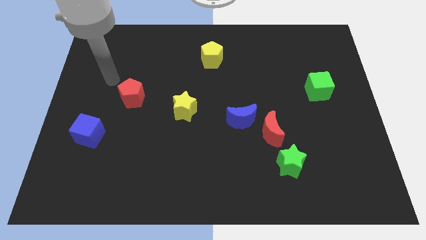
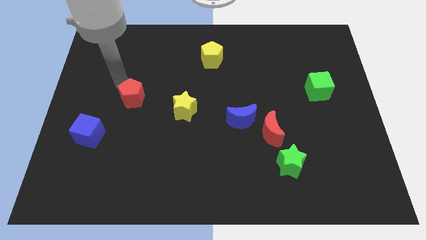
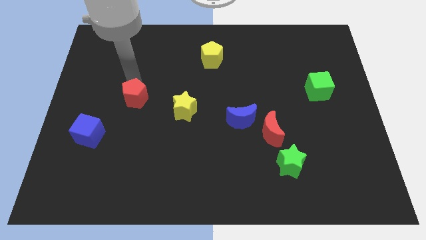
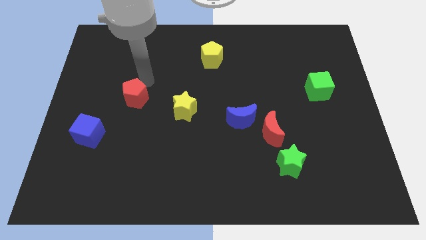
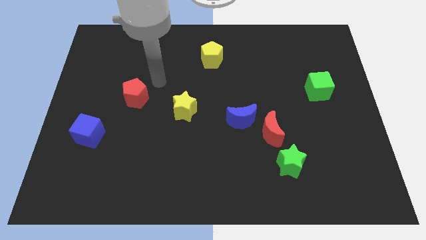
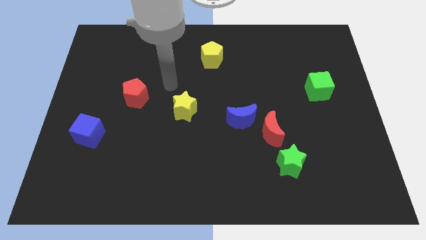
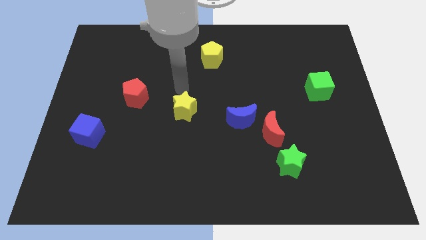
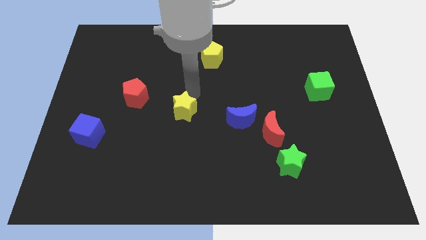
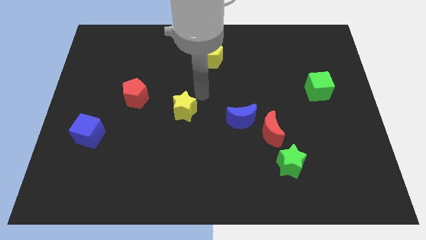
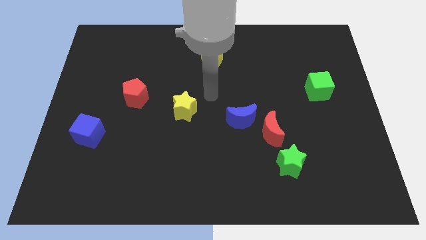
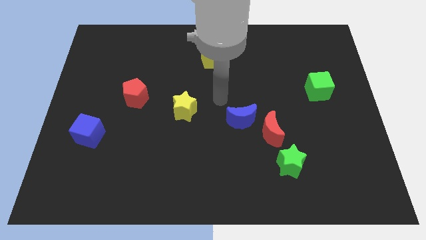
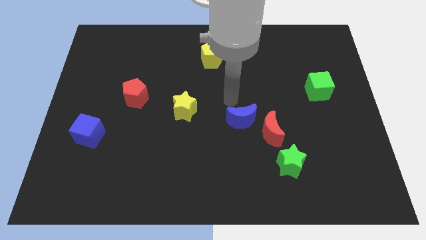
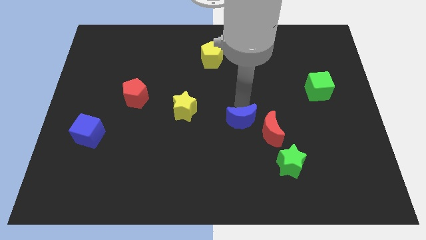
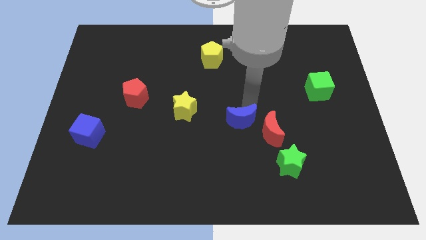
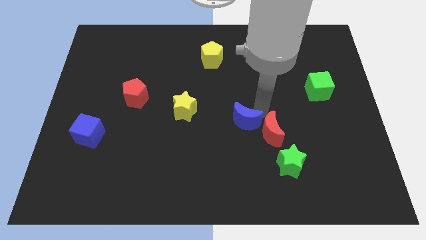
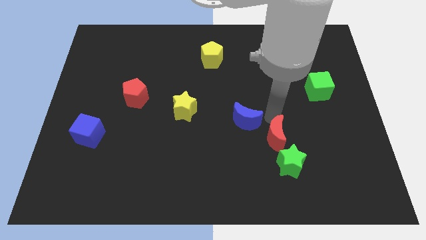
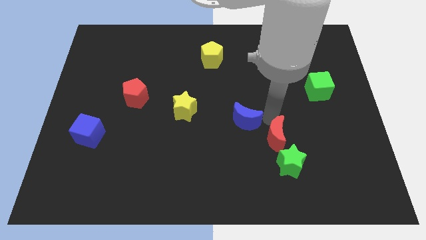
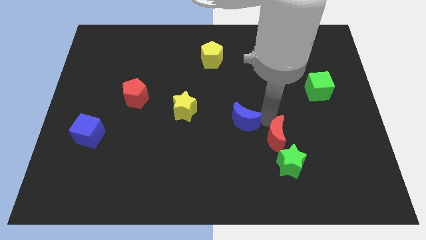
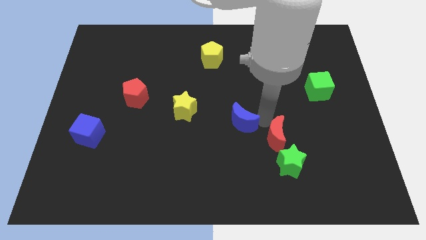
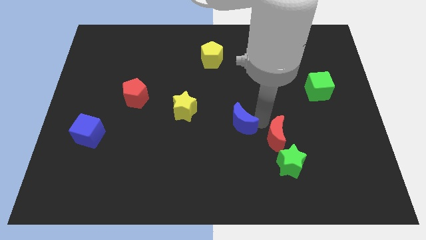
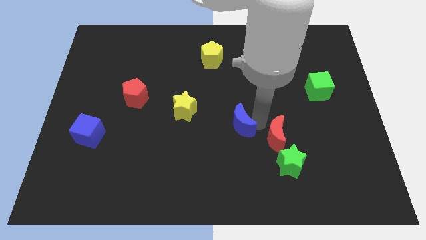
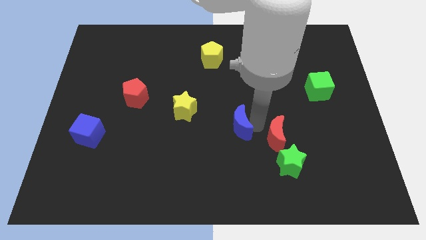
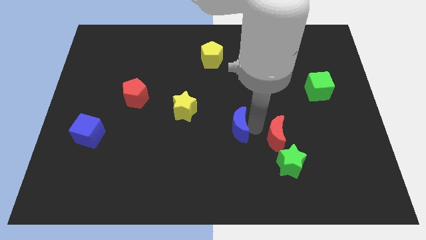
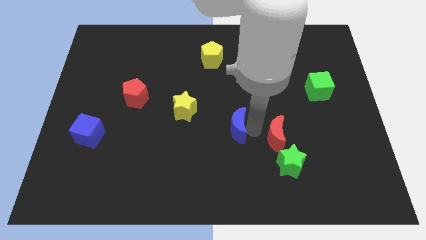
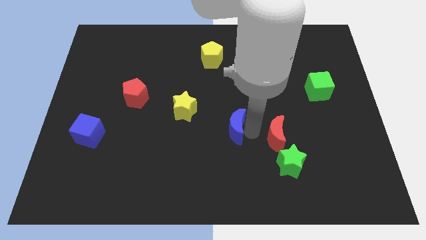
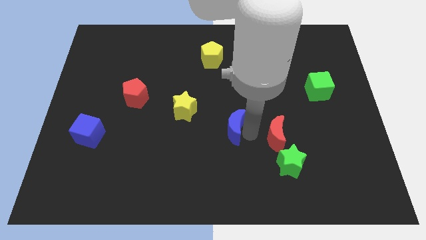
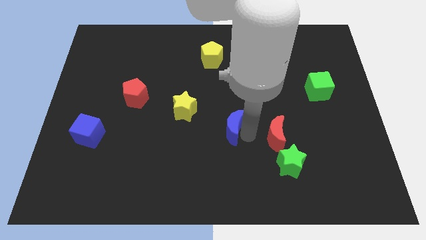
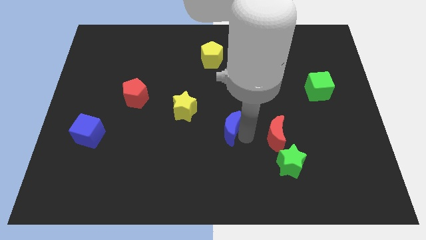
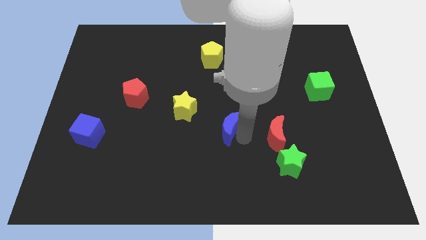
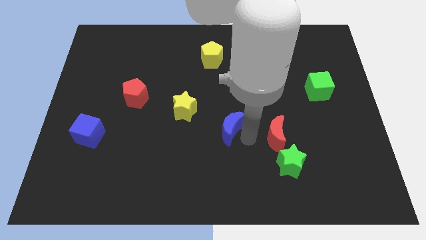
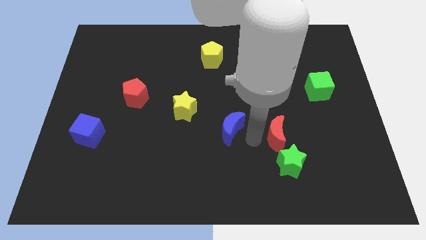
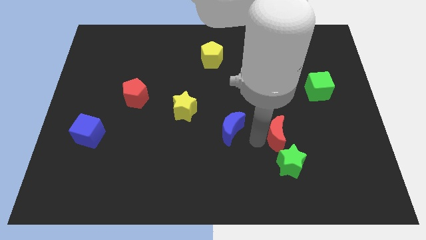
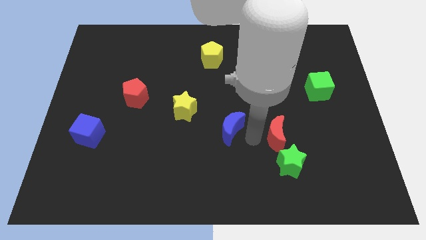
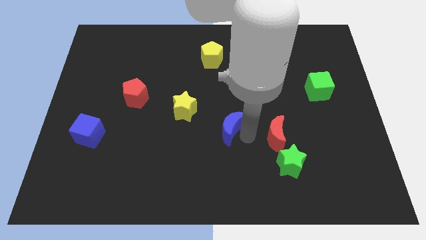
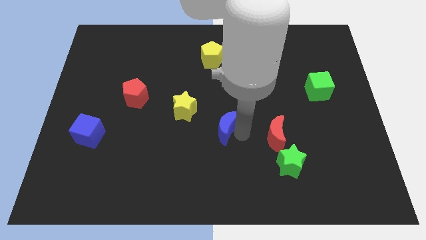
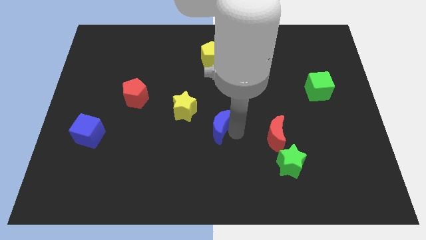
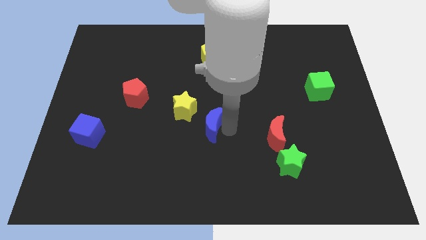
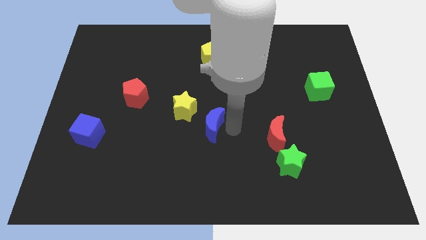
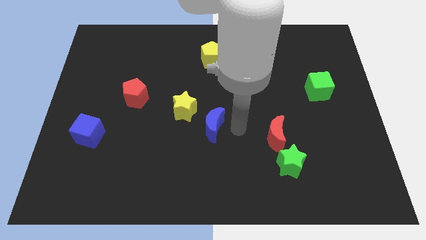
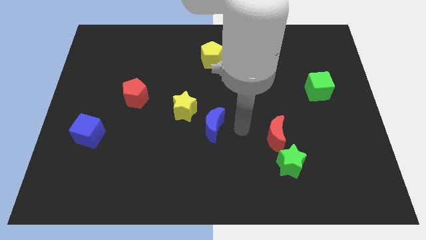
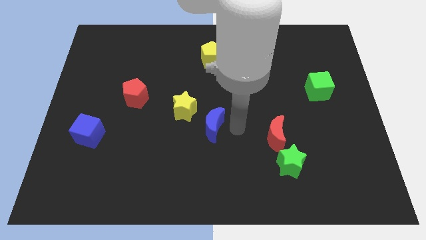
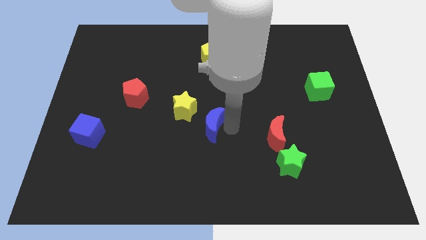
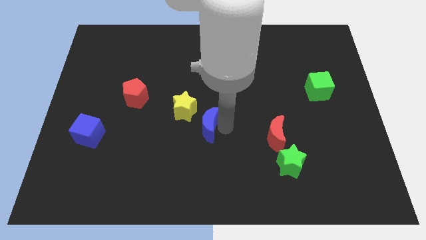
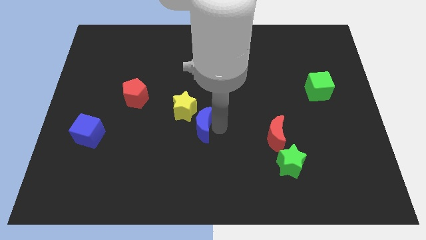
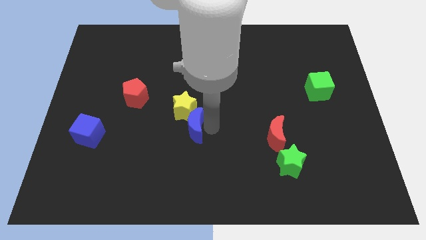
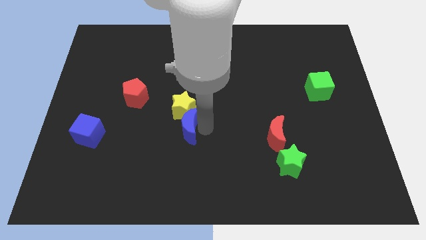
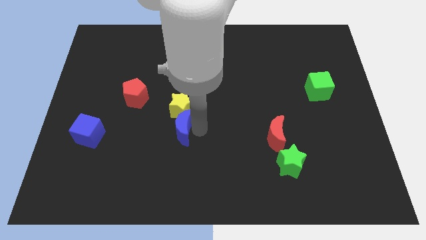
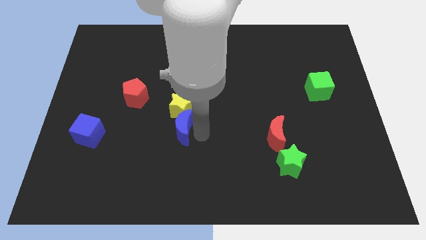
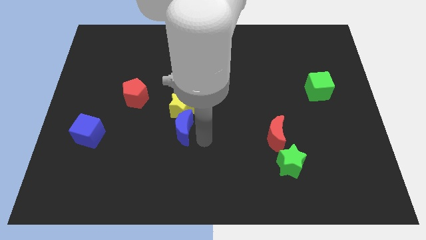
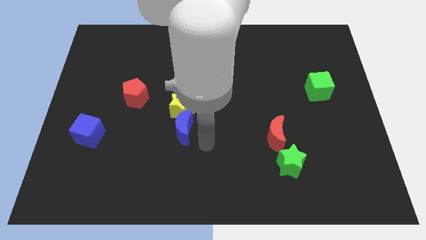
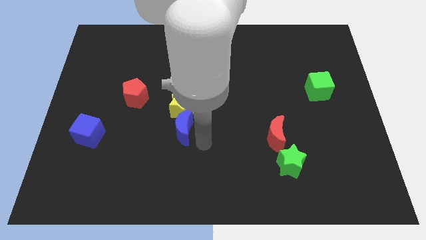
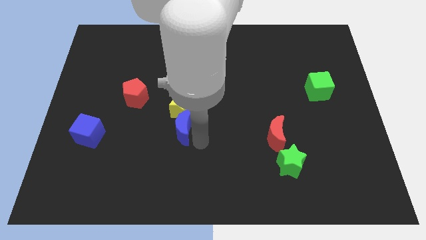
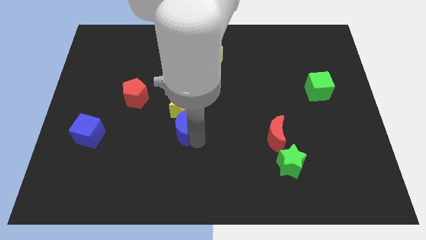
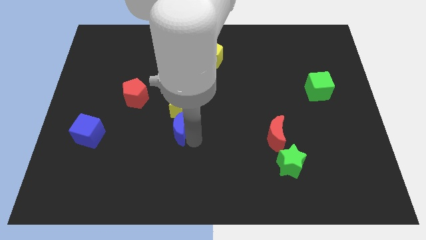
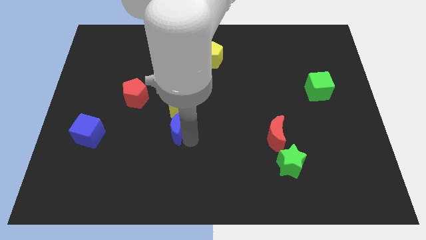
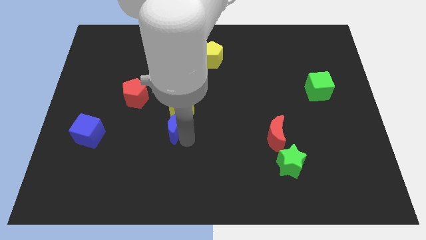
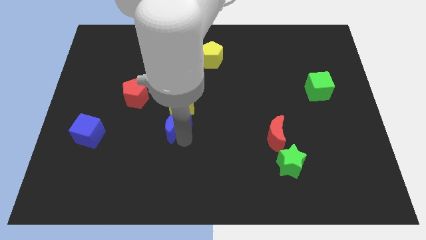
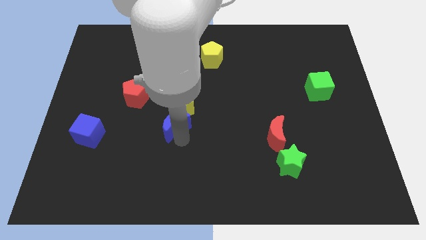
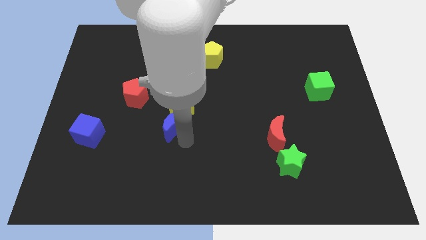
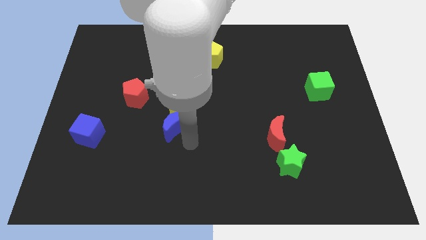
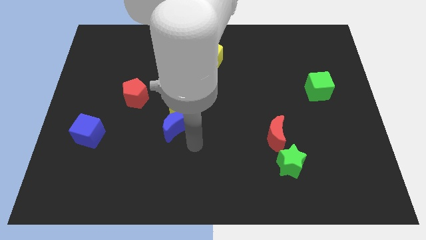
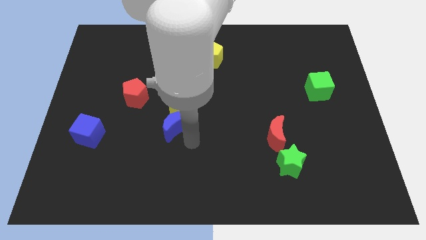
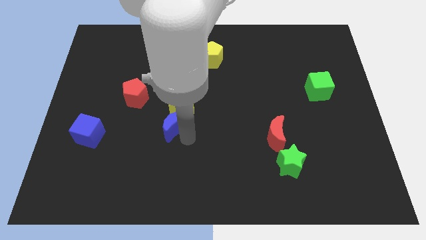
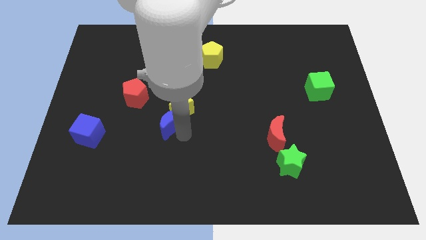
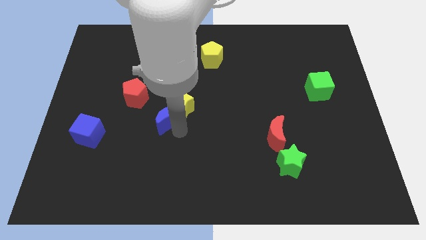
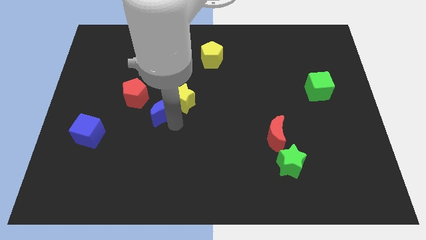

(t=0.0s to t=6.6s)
slide the blue moon to the left of the yellow star

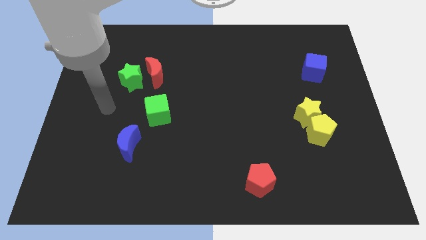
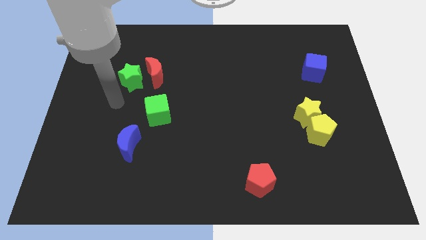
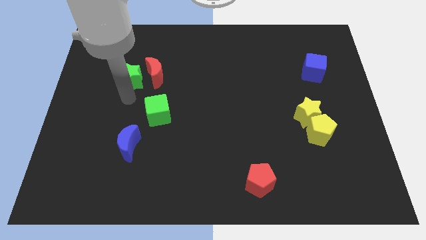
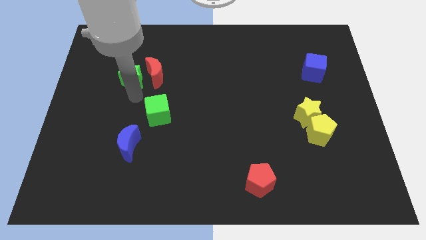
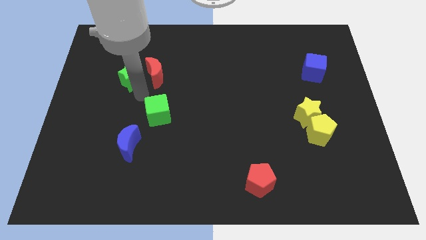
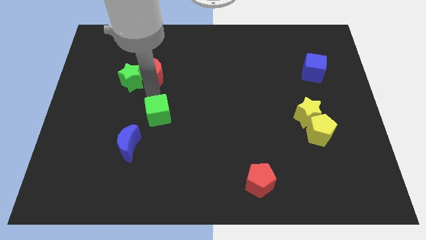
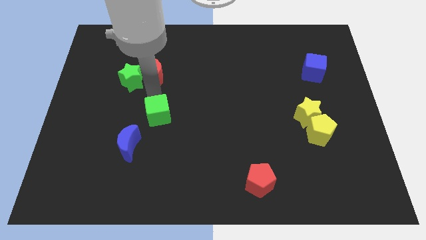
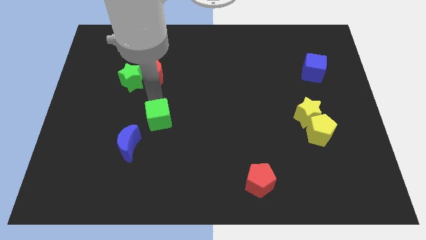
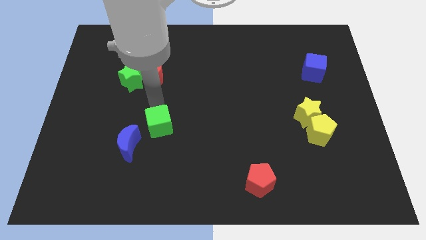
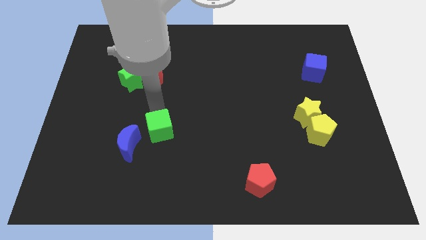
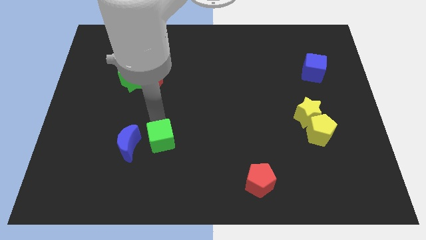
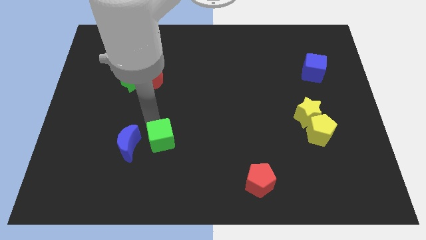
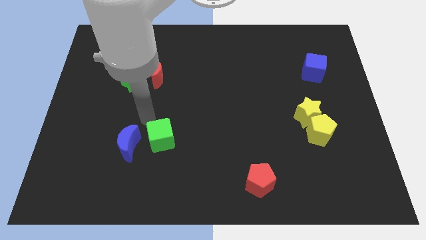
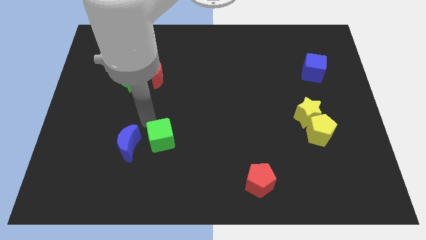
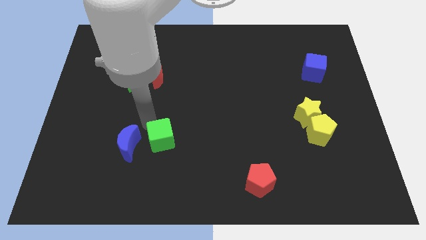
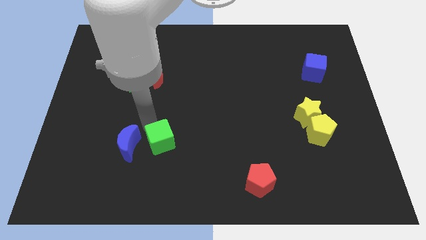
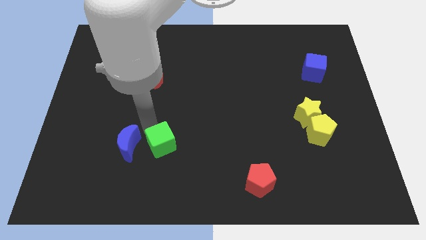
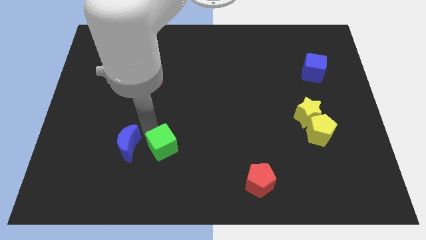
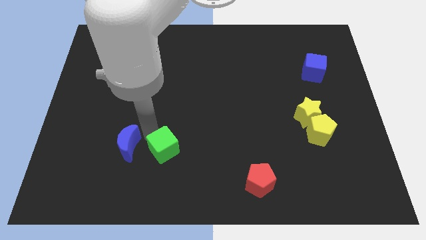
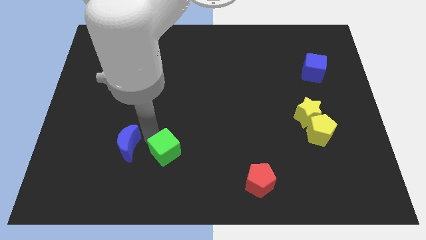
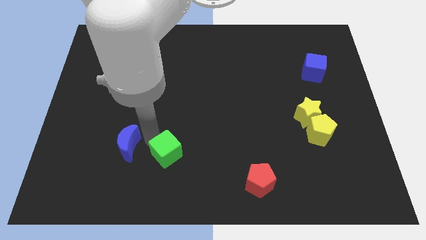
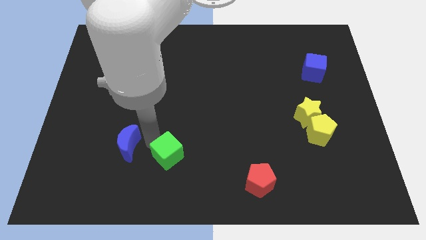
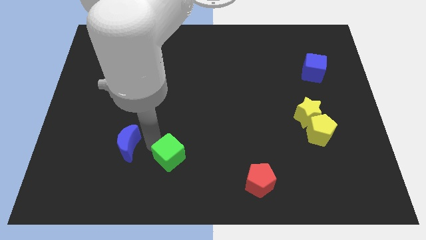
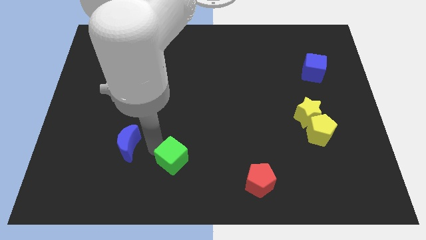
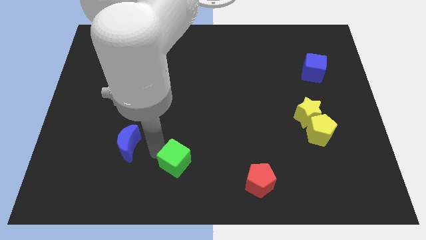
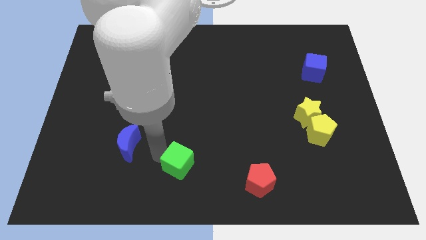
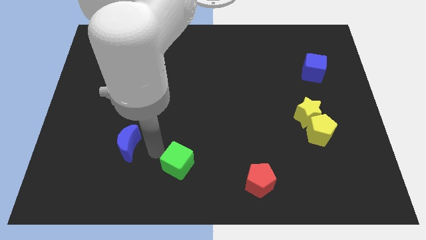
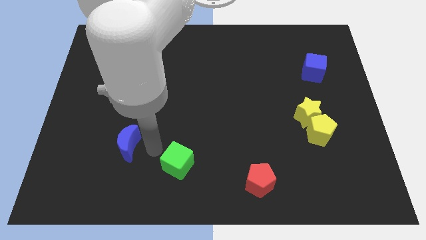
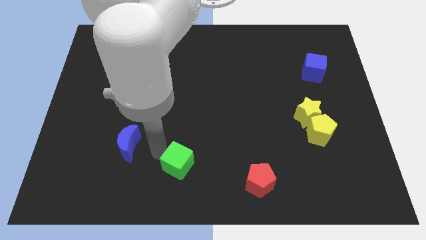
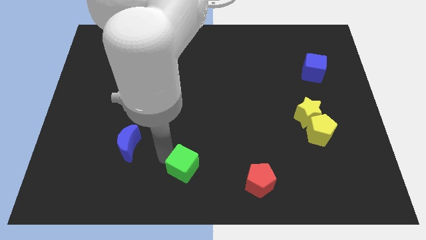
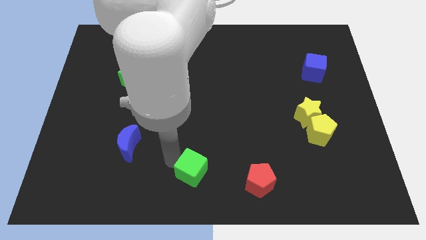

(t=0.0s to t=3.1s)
push the green cube left of the red pentagon
